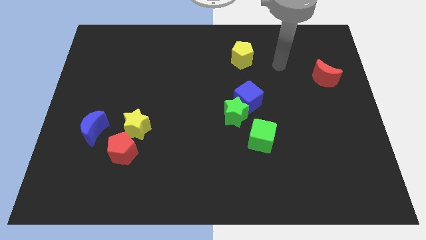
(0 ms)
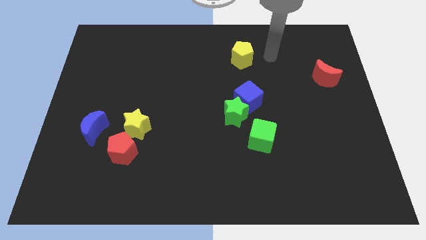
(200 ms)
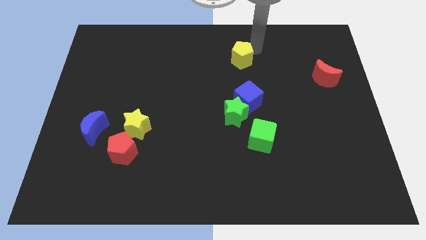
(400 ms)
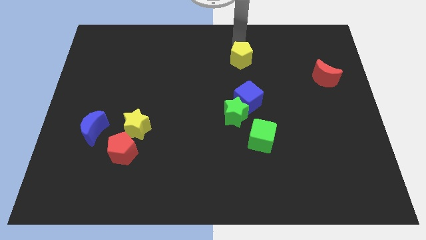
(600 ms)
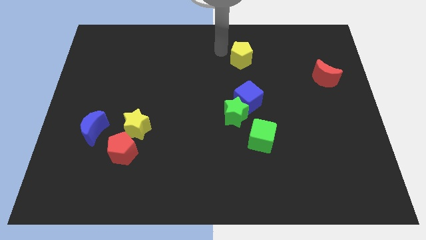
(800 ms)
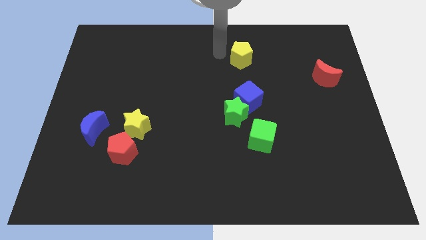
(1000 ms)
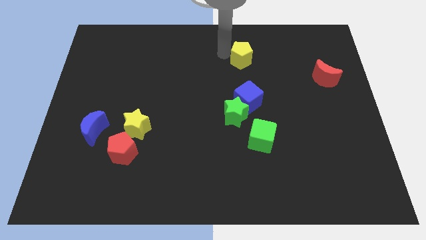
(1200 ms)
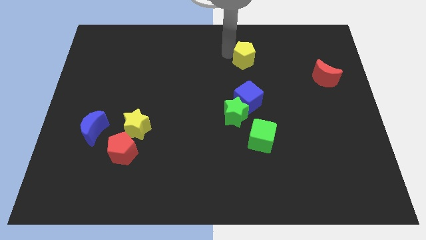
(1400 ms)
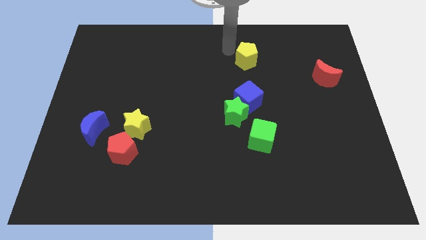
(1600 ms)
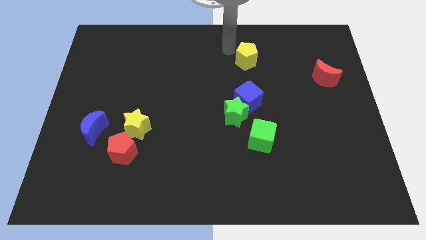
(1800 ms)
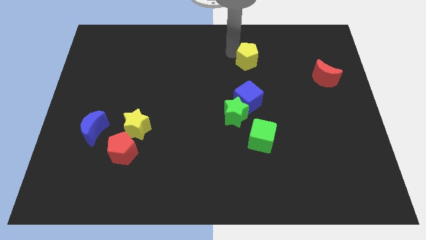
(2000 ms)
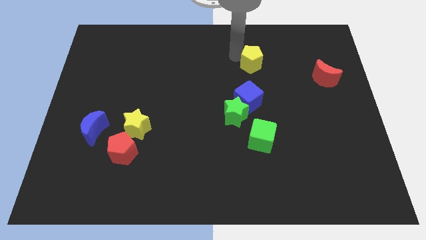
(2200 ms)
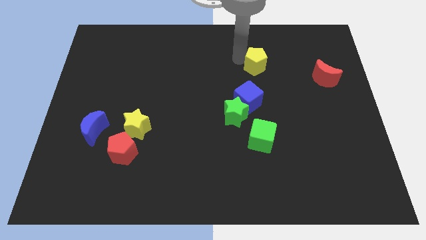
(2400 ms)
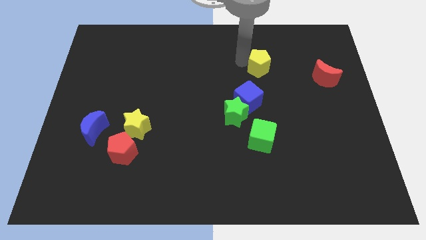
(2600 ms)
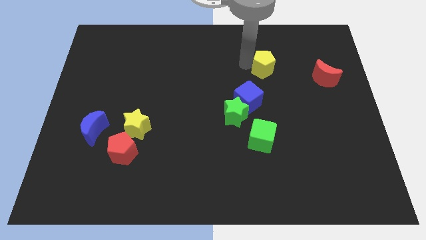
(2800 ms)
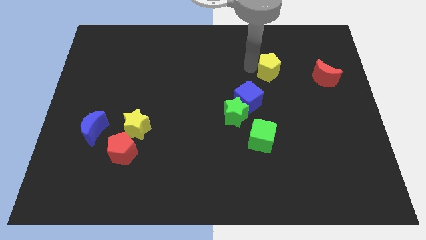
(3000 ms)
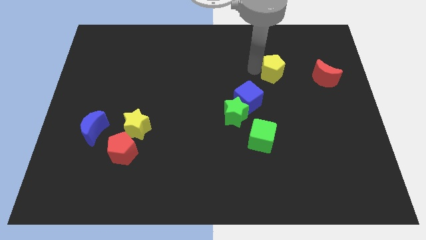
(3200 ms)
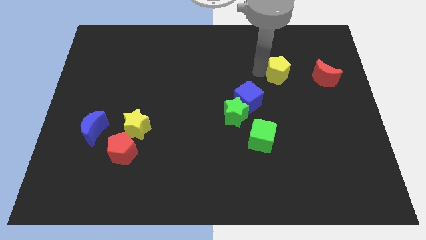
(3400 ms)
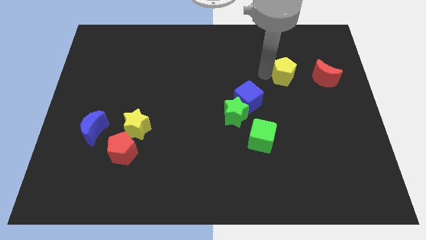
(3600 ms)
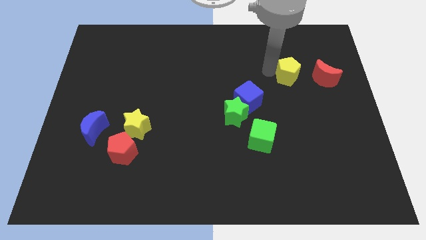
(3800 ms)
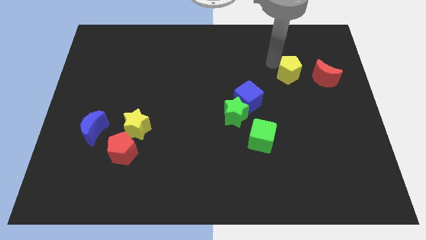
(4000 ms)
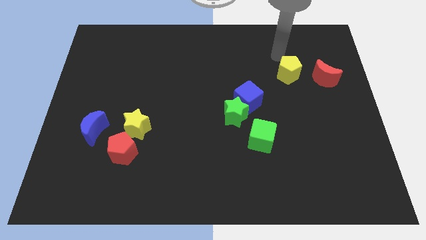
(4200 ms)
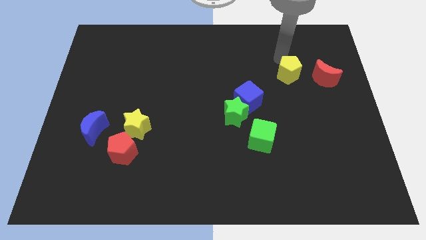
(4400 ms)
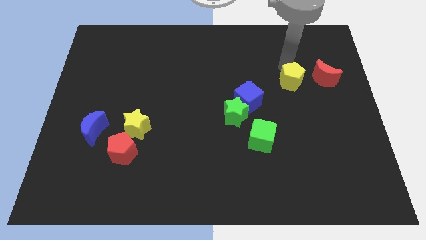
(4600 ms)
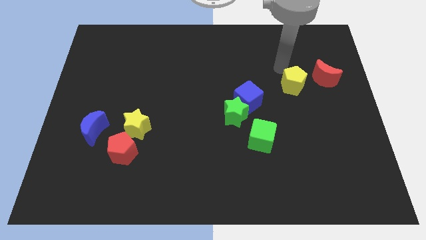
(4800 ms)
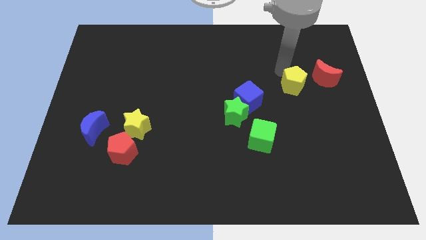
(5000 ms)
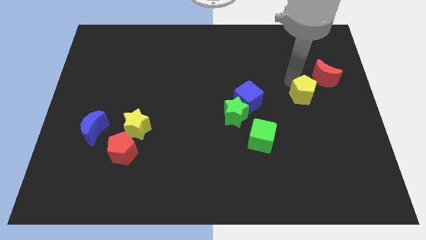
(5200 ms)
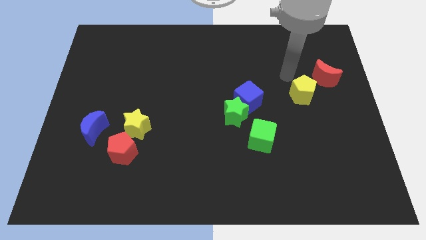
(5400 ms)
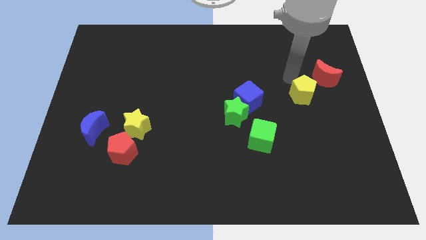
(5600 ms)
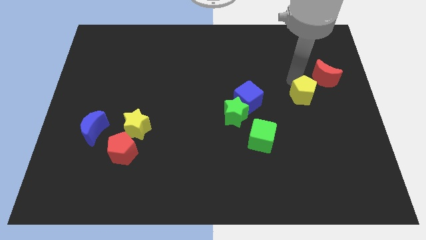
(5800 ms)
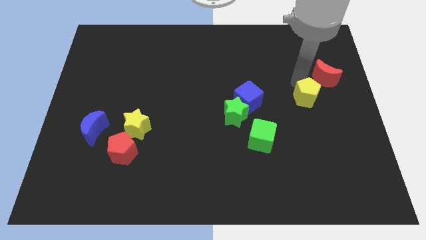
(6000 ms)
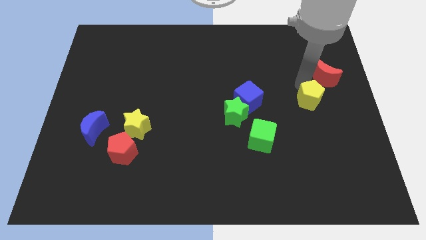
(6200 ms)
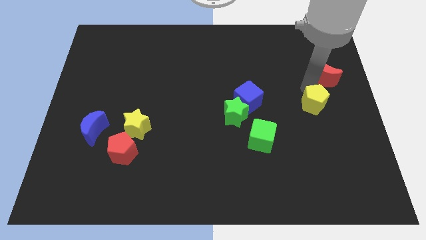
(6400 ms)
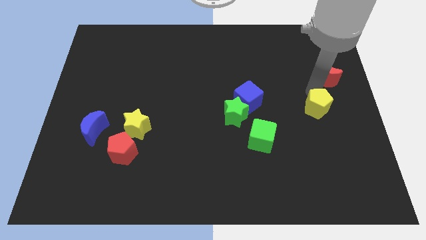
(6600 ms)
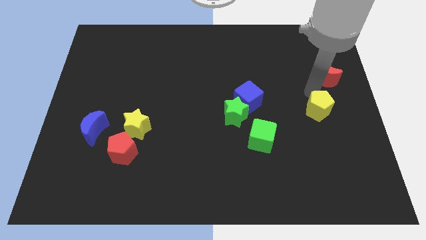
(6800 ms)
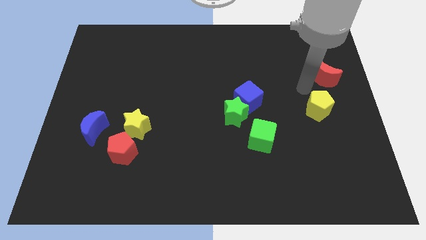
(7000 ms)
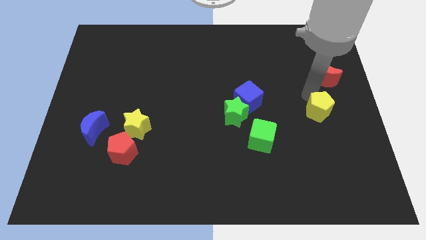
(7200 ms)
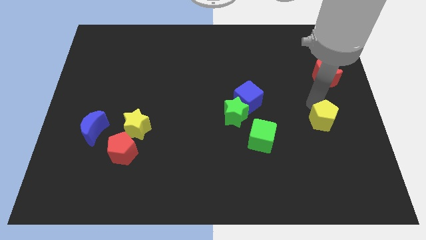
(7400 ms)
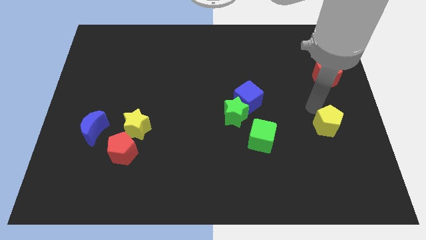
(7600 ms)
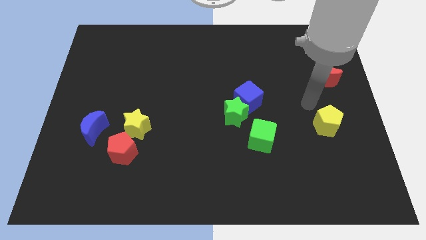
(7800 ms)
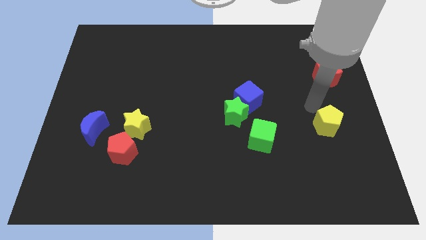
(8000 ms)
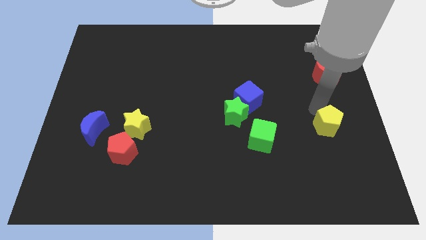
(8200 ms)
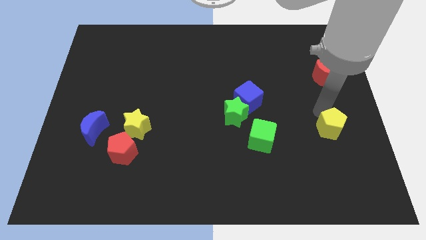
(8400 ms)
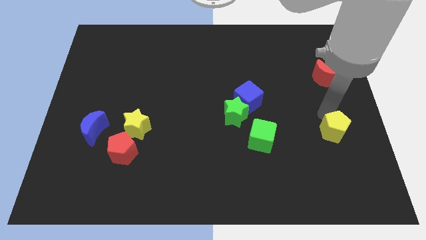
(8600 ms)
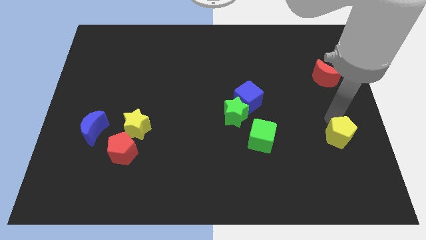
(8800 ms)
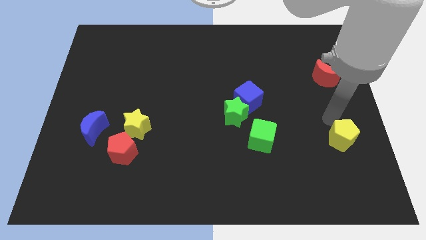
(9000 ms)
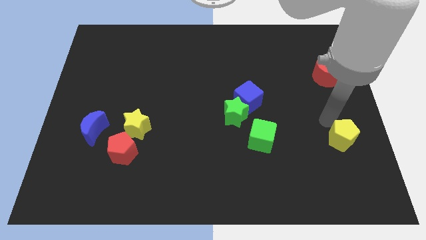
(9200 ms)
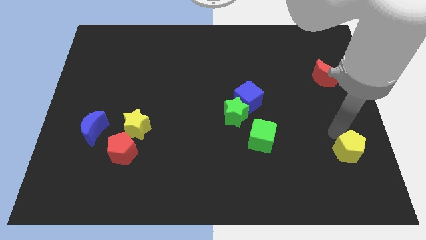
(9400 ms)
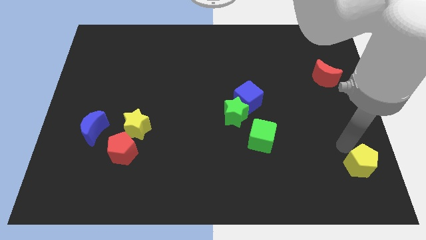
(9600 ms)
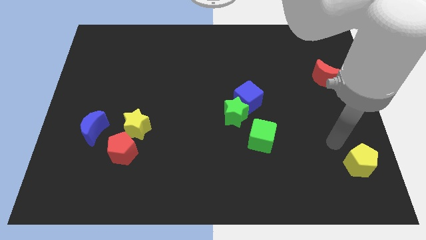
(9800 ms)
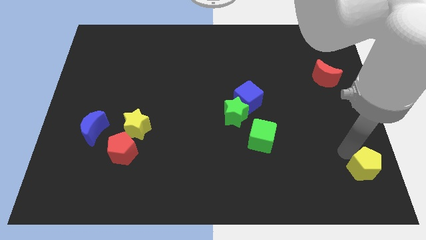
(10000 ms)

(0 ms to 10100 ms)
move the yellow pentagon to the bottom right

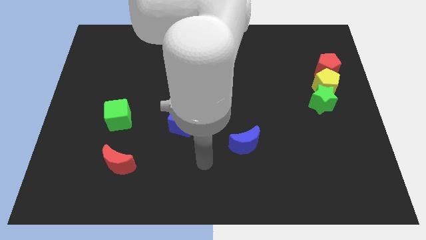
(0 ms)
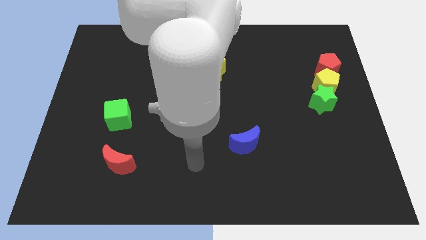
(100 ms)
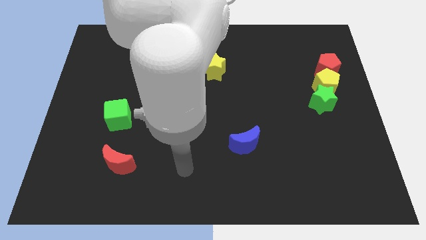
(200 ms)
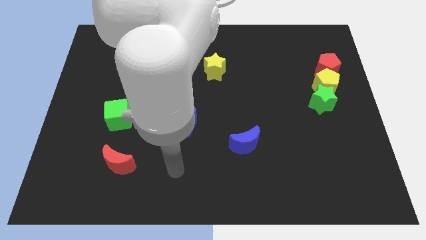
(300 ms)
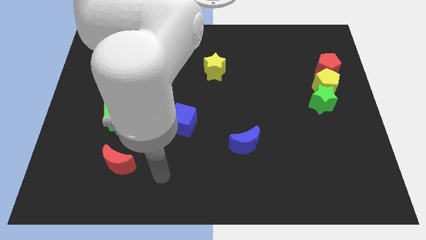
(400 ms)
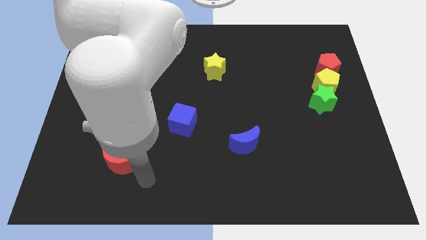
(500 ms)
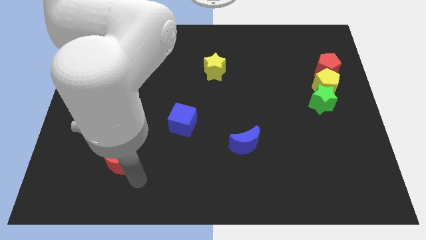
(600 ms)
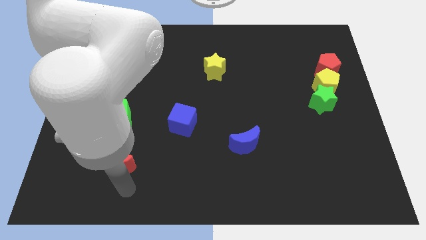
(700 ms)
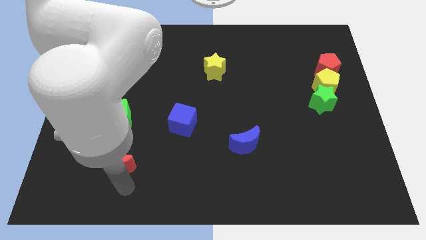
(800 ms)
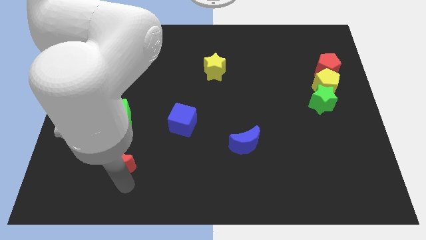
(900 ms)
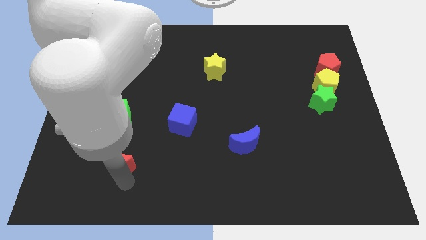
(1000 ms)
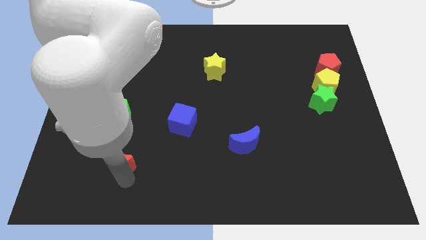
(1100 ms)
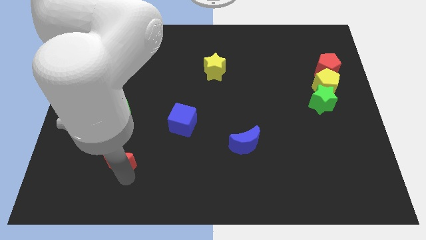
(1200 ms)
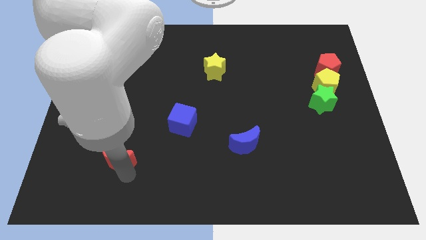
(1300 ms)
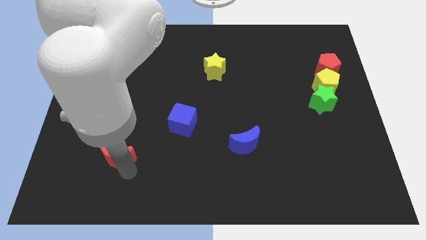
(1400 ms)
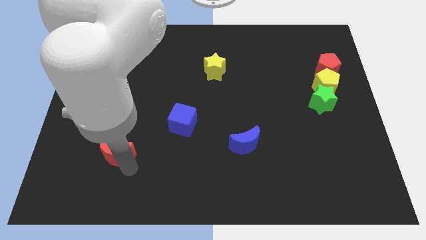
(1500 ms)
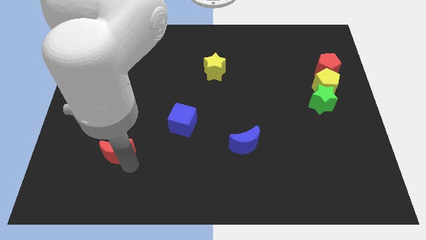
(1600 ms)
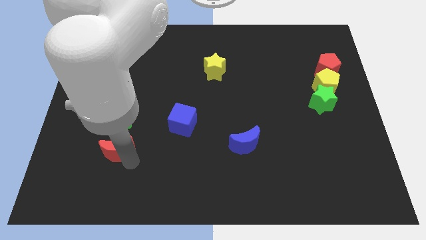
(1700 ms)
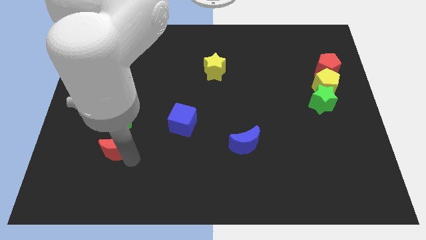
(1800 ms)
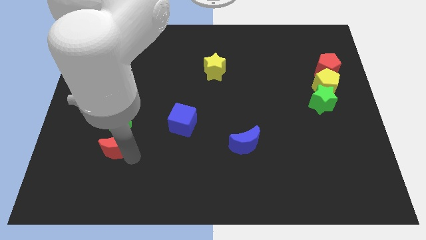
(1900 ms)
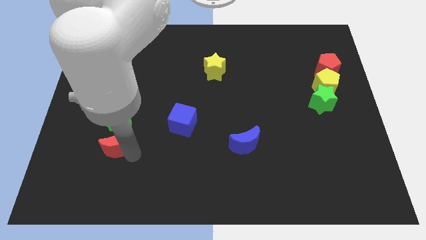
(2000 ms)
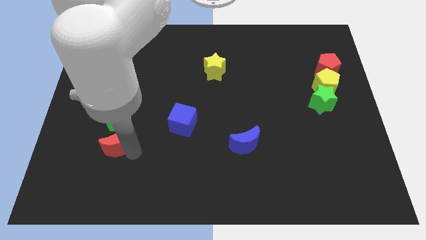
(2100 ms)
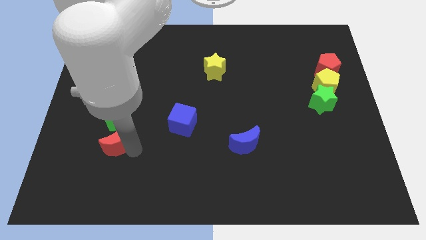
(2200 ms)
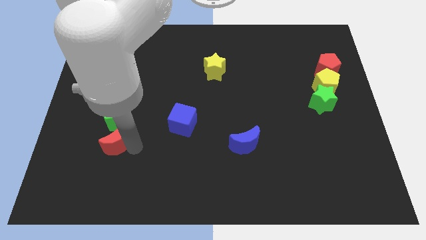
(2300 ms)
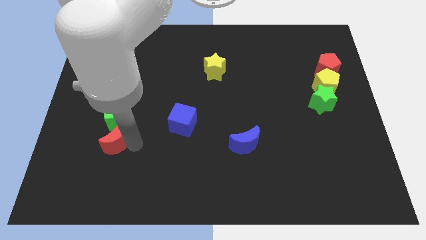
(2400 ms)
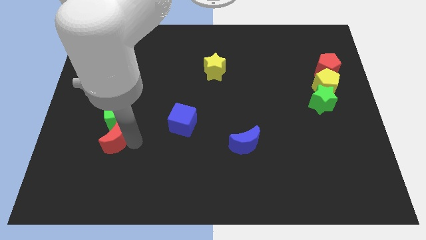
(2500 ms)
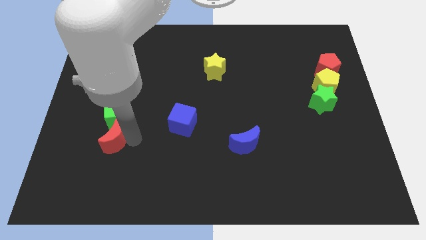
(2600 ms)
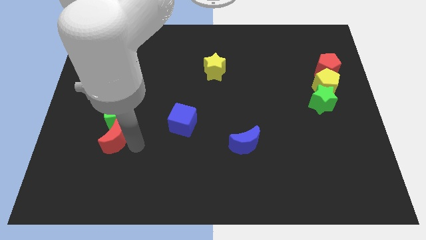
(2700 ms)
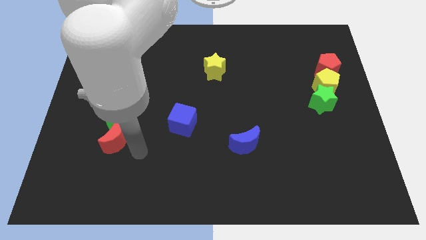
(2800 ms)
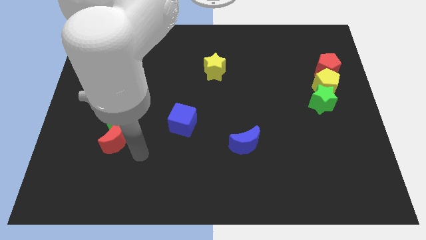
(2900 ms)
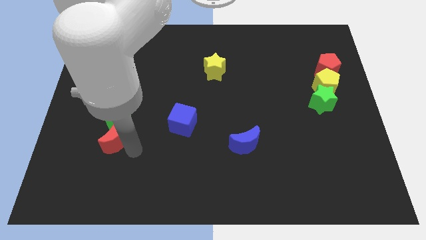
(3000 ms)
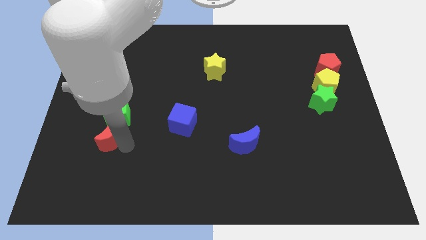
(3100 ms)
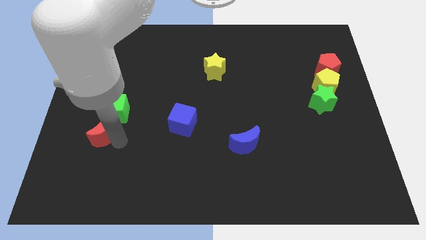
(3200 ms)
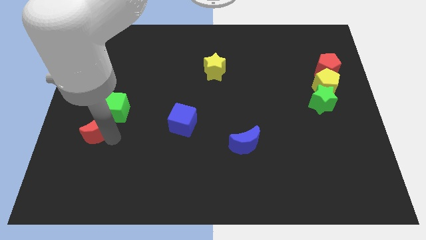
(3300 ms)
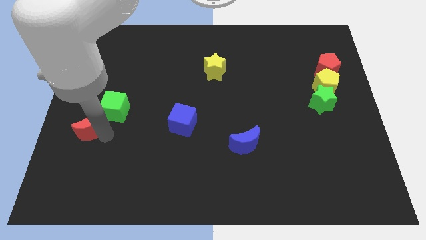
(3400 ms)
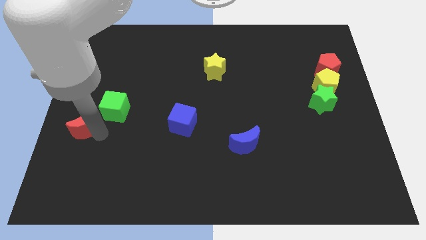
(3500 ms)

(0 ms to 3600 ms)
slide the red moon to the center left
